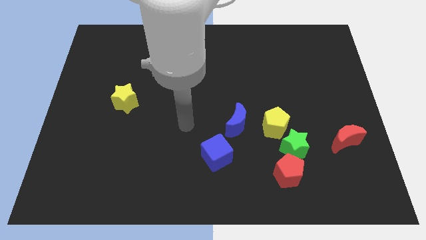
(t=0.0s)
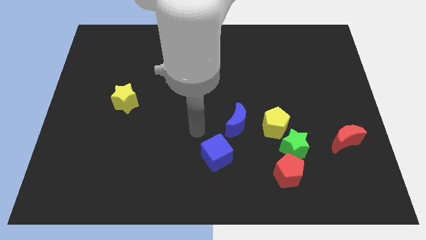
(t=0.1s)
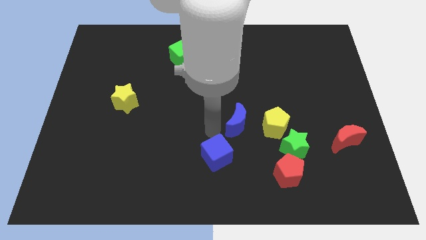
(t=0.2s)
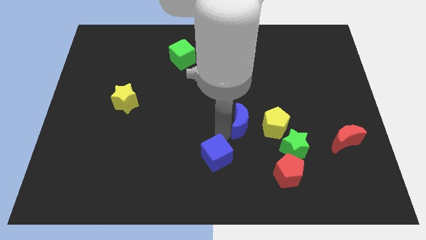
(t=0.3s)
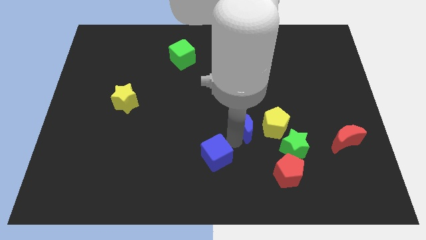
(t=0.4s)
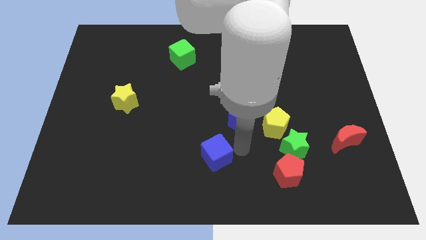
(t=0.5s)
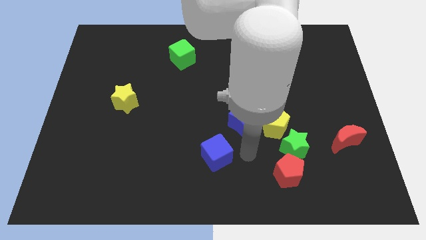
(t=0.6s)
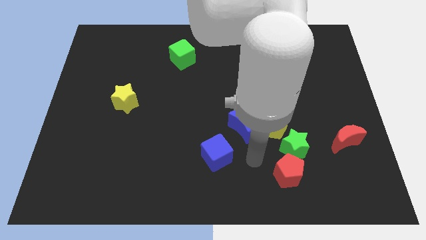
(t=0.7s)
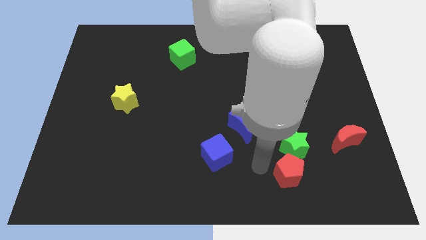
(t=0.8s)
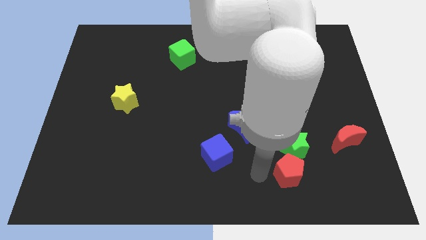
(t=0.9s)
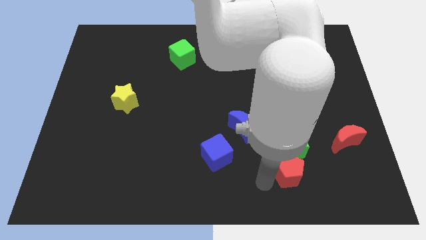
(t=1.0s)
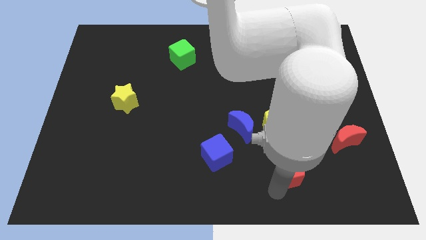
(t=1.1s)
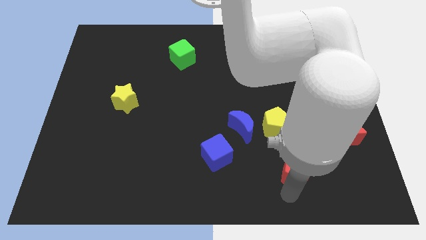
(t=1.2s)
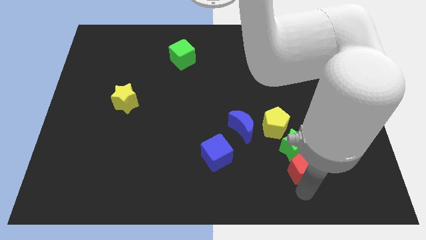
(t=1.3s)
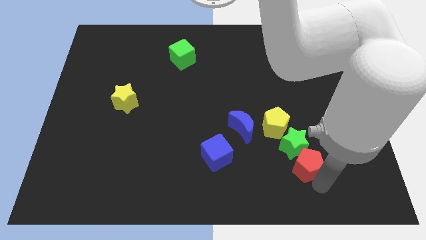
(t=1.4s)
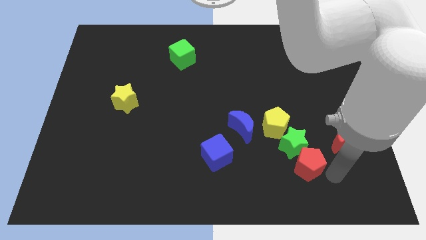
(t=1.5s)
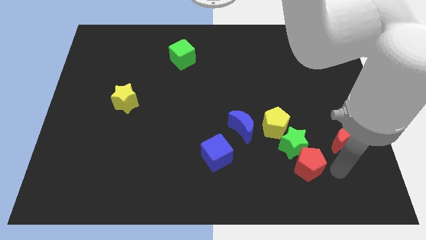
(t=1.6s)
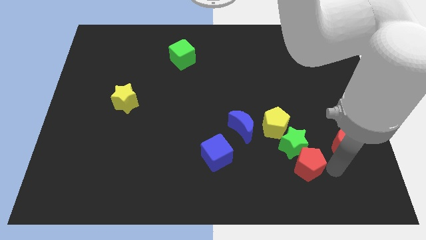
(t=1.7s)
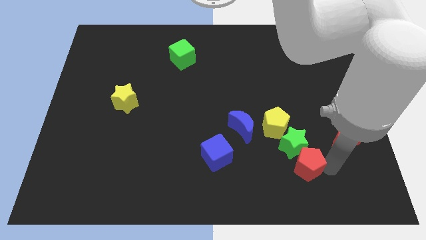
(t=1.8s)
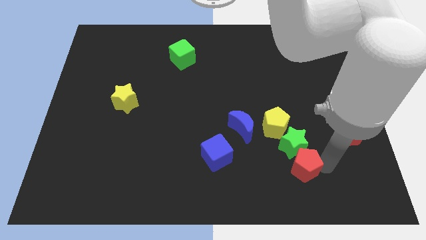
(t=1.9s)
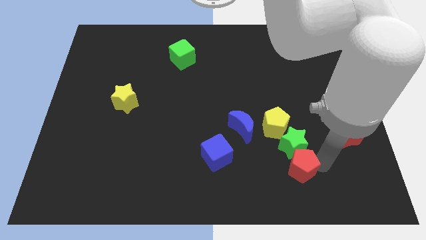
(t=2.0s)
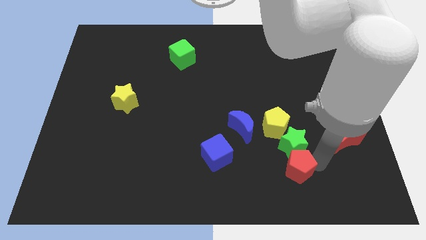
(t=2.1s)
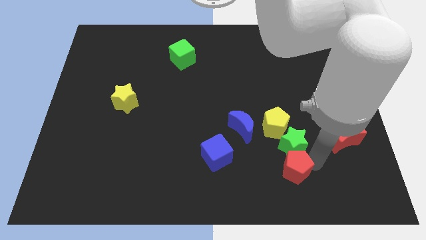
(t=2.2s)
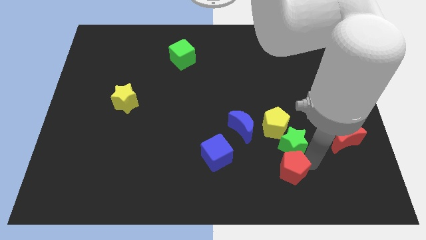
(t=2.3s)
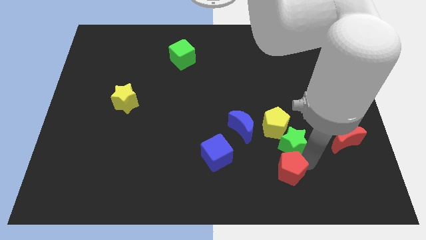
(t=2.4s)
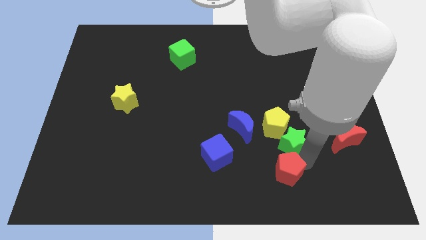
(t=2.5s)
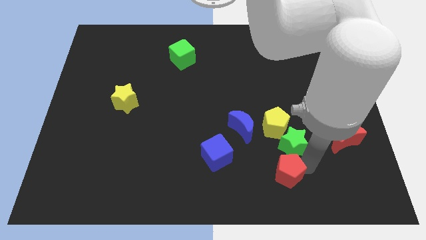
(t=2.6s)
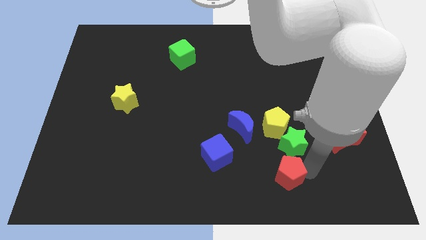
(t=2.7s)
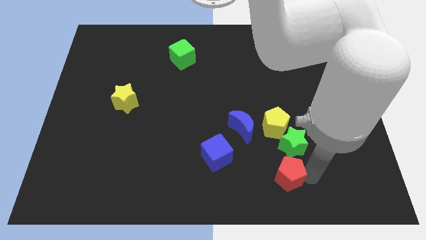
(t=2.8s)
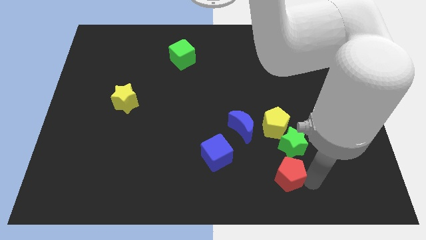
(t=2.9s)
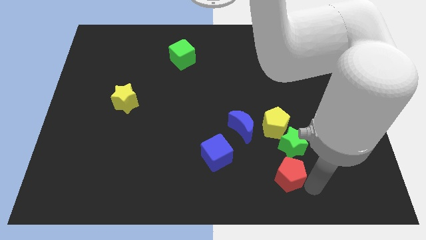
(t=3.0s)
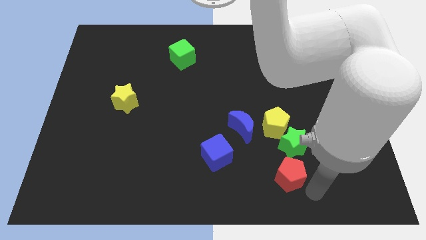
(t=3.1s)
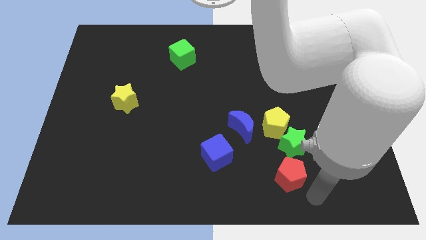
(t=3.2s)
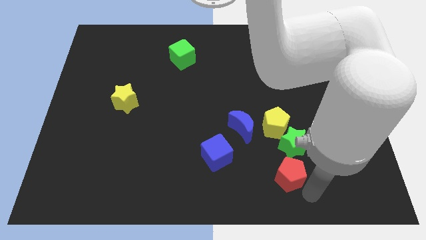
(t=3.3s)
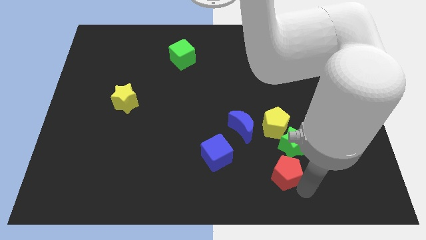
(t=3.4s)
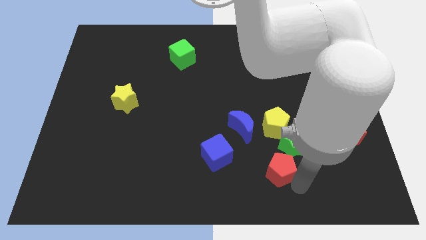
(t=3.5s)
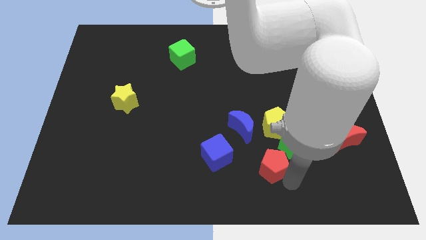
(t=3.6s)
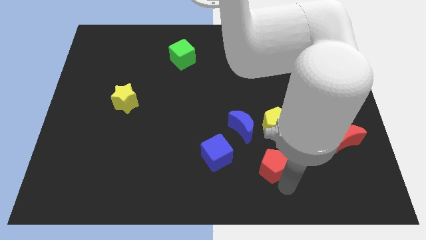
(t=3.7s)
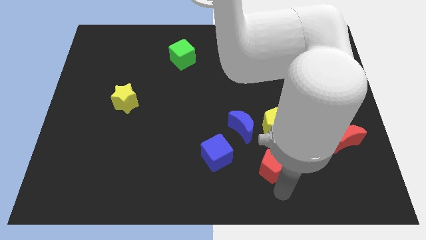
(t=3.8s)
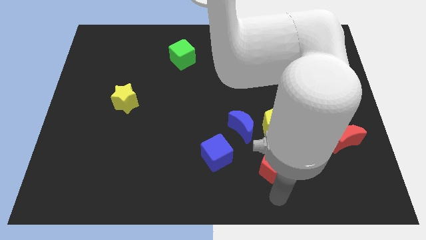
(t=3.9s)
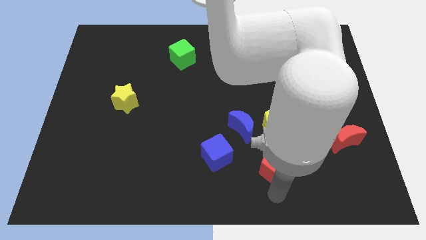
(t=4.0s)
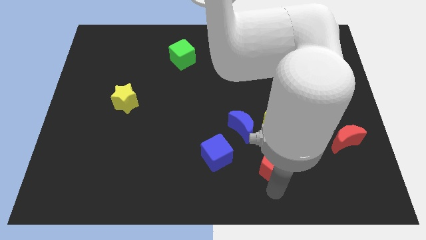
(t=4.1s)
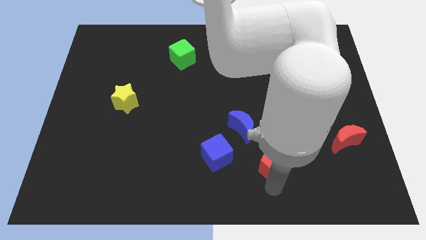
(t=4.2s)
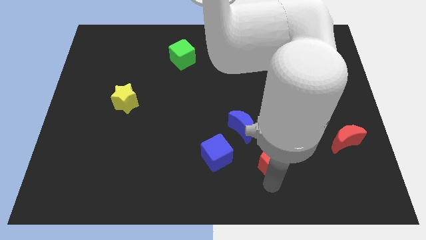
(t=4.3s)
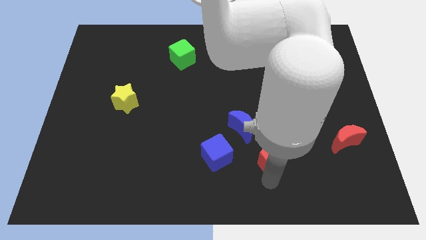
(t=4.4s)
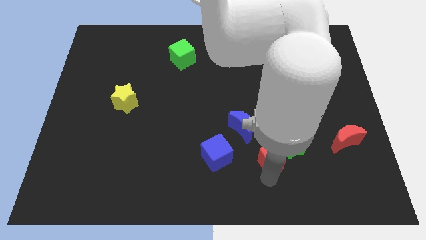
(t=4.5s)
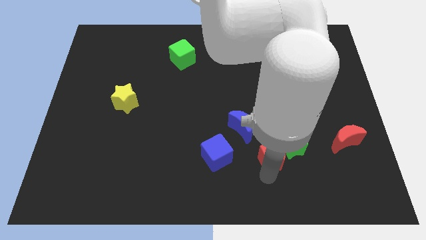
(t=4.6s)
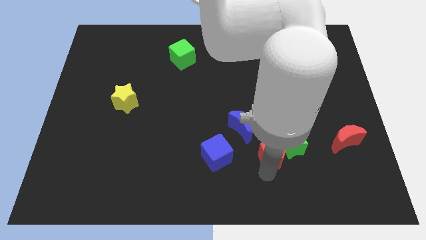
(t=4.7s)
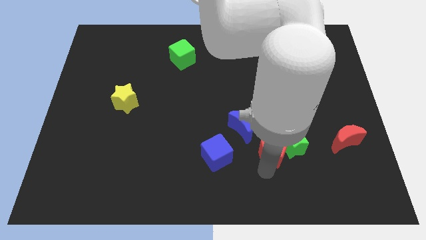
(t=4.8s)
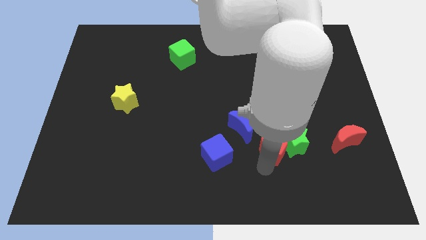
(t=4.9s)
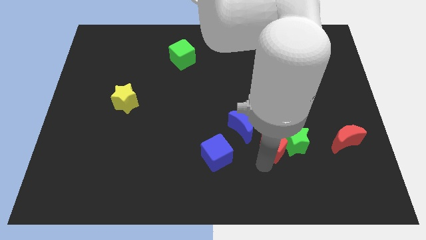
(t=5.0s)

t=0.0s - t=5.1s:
move the red pentagon towards the yellow pentagon

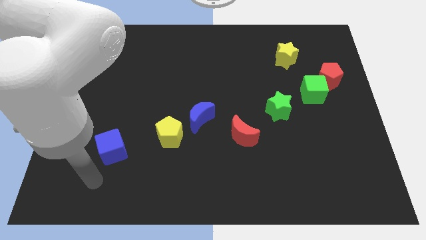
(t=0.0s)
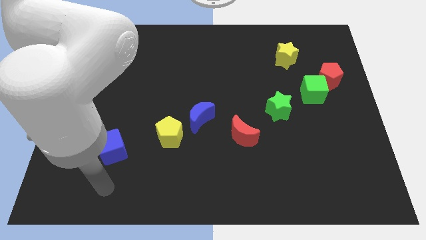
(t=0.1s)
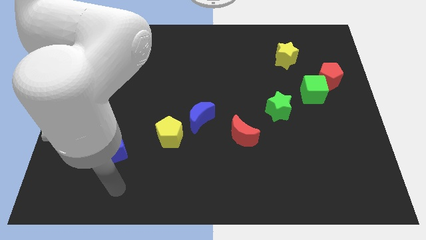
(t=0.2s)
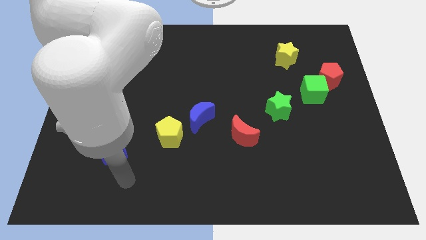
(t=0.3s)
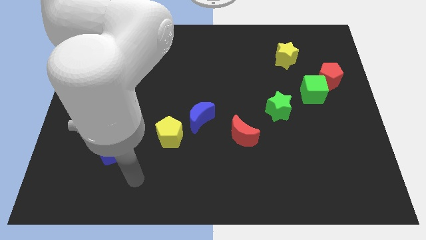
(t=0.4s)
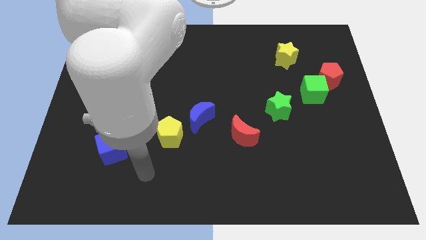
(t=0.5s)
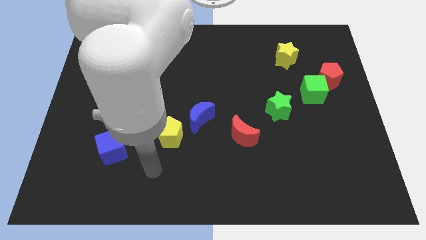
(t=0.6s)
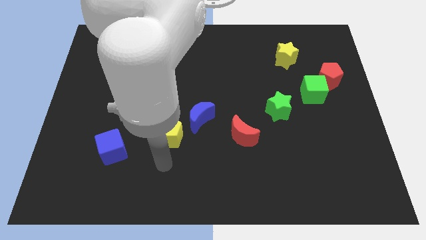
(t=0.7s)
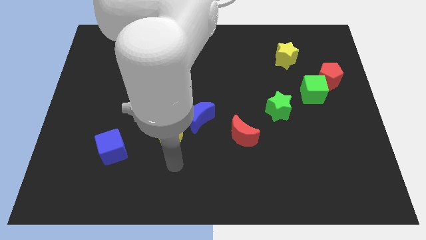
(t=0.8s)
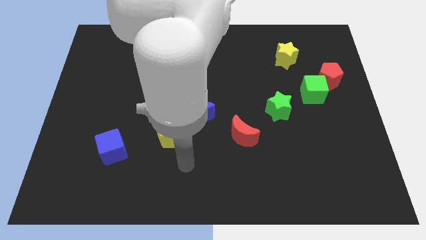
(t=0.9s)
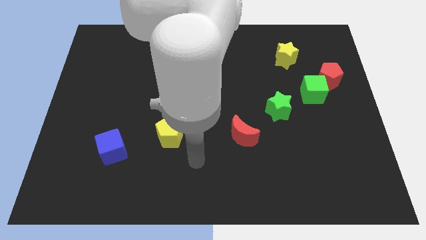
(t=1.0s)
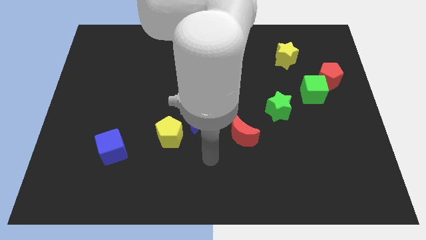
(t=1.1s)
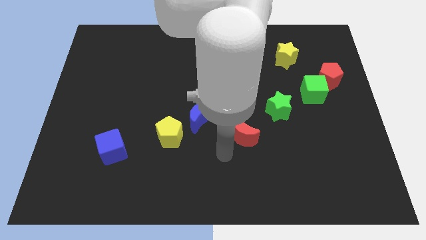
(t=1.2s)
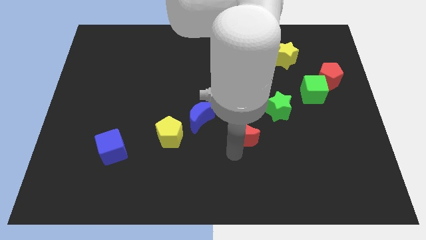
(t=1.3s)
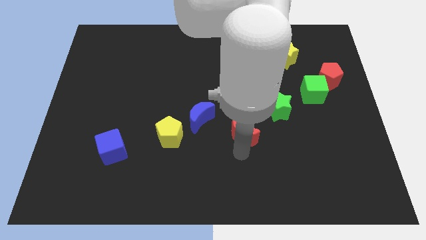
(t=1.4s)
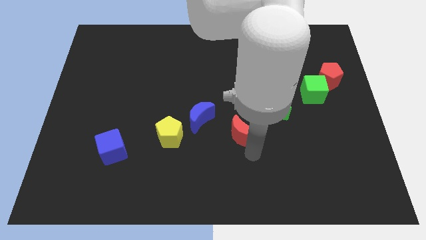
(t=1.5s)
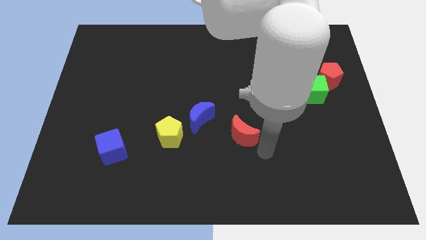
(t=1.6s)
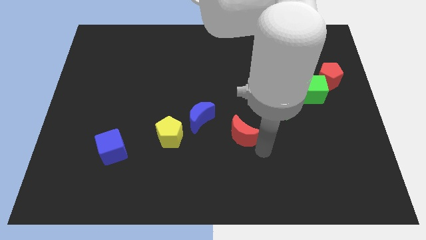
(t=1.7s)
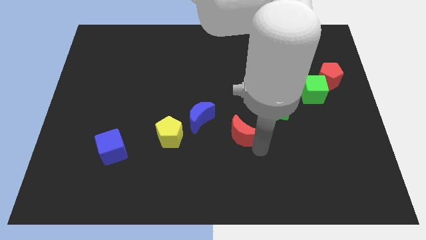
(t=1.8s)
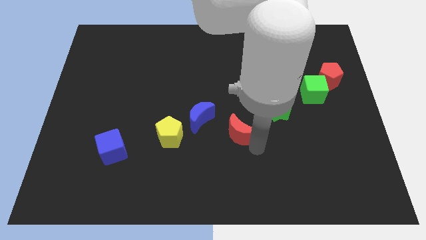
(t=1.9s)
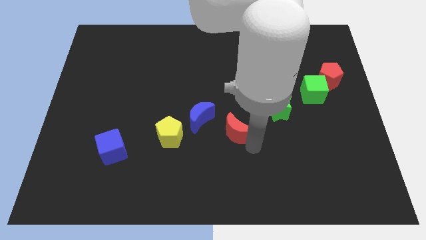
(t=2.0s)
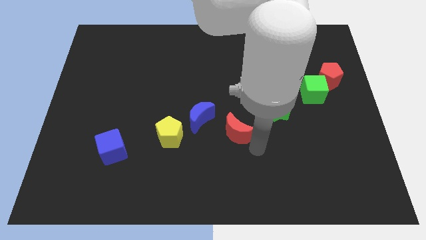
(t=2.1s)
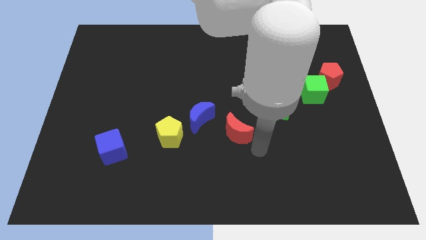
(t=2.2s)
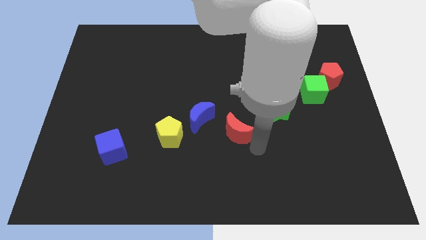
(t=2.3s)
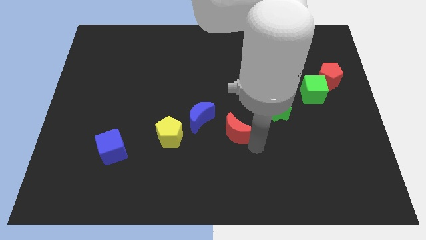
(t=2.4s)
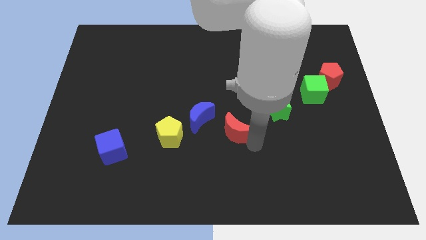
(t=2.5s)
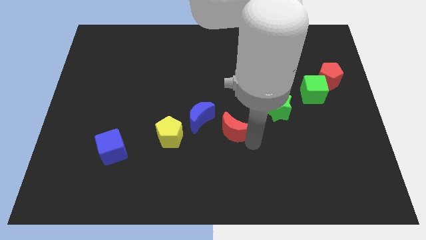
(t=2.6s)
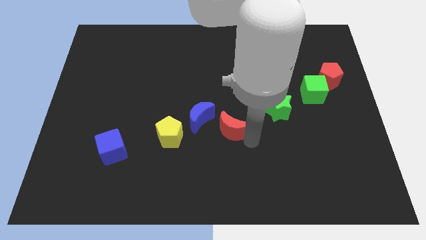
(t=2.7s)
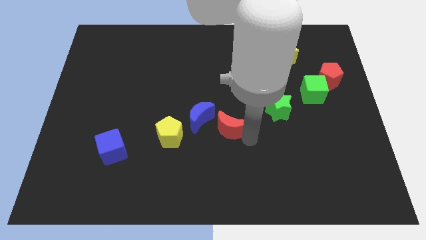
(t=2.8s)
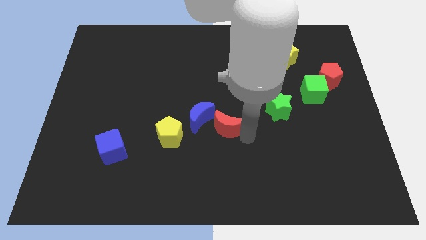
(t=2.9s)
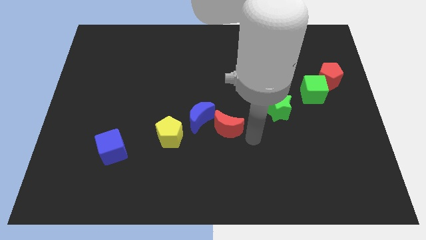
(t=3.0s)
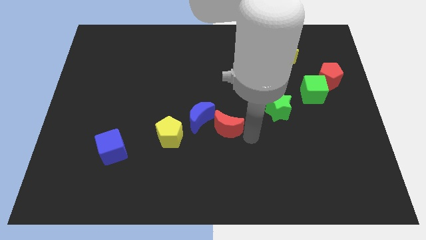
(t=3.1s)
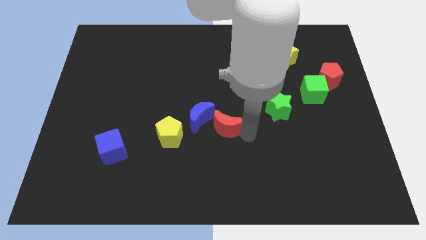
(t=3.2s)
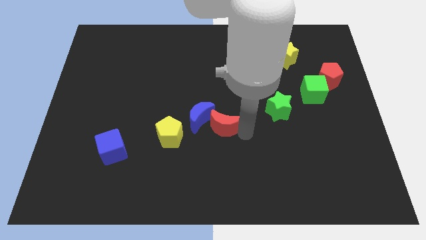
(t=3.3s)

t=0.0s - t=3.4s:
slide the red moon close to the blue moon
